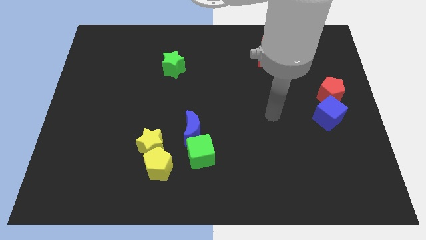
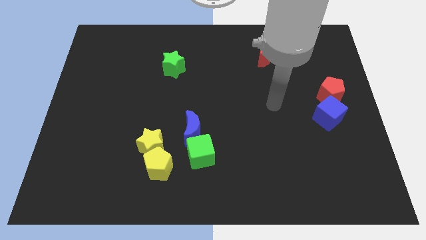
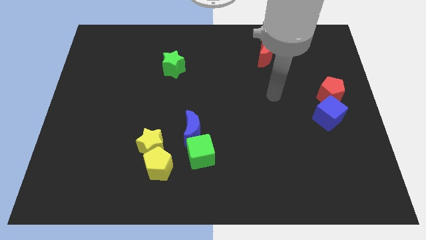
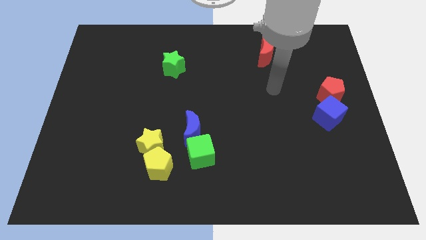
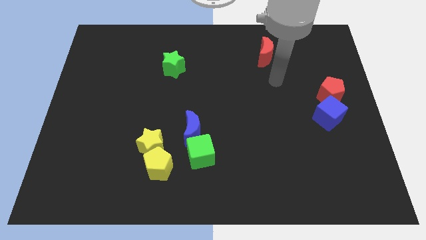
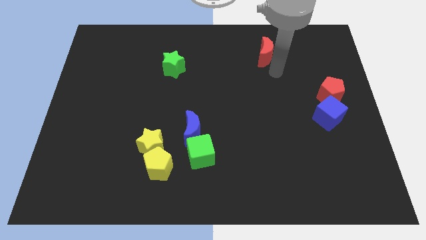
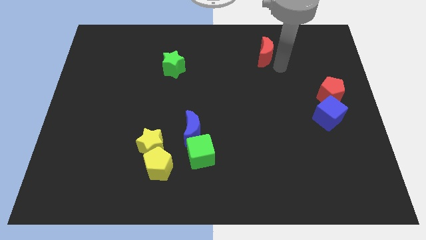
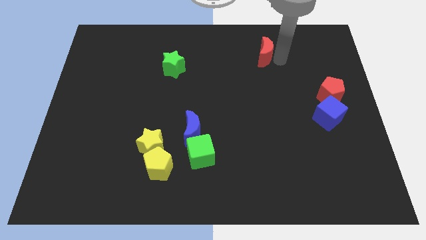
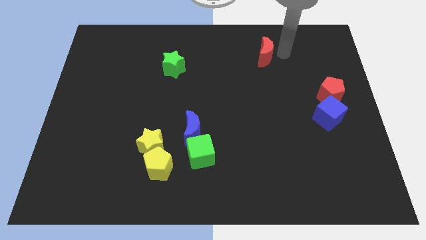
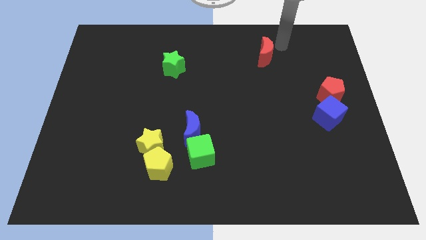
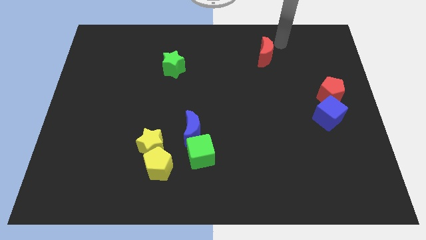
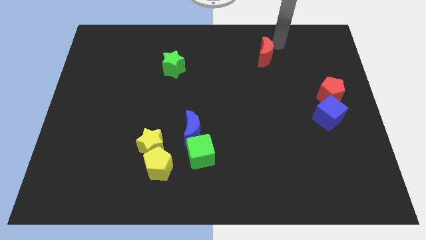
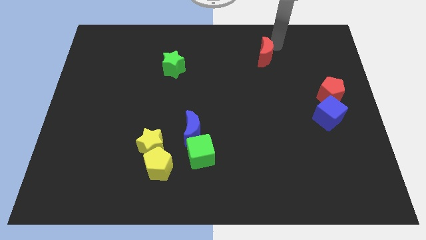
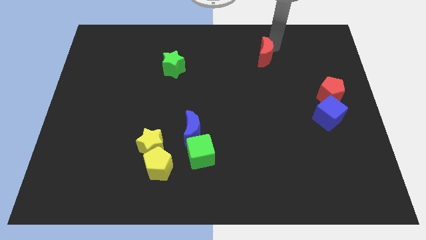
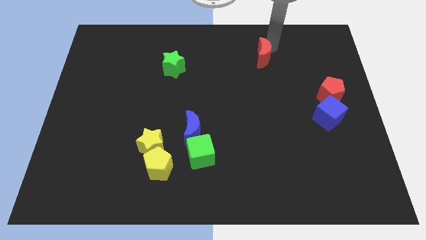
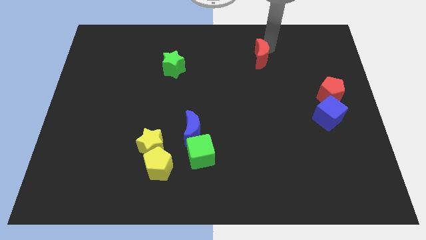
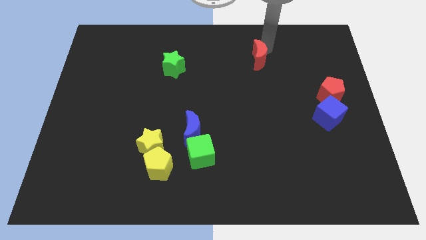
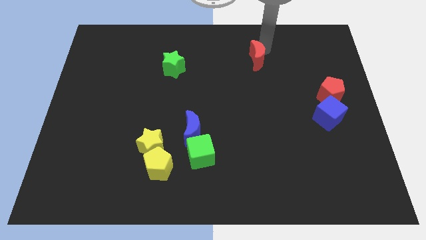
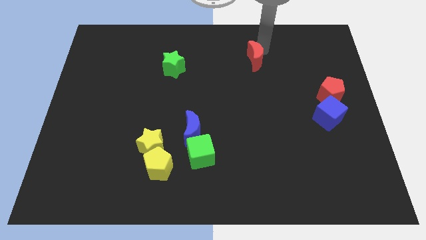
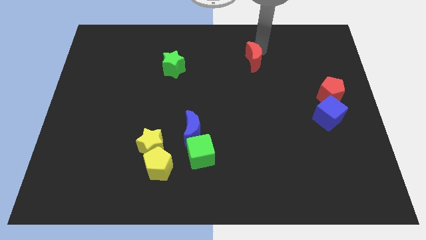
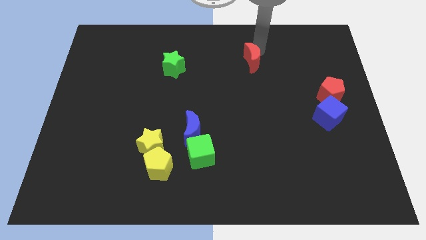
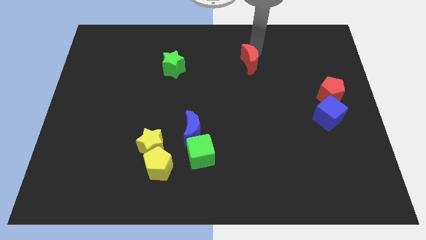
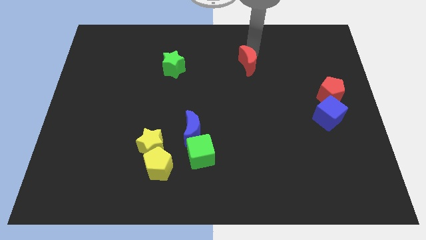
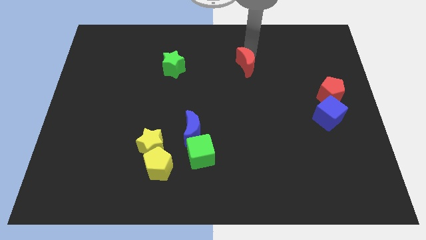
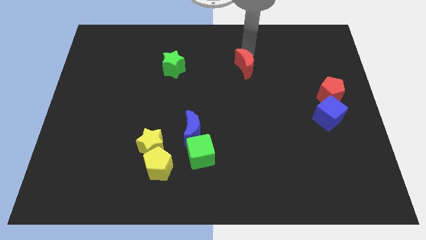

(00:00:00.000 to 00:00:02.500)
slightly move the red moon down and to the left

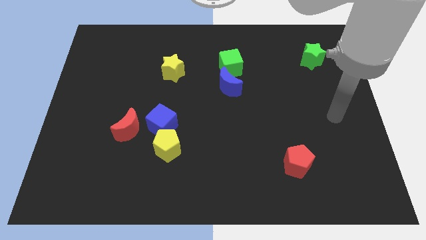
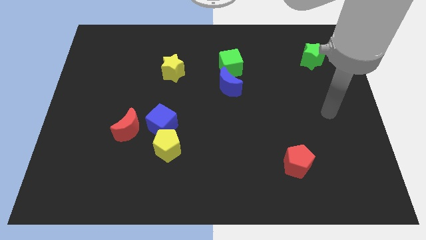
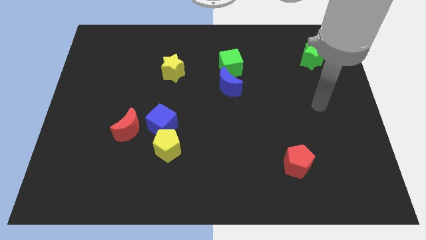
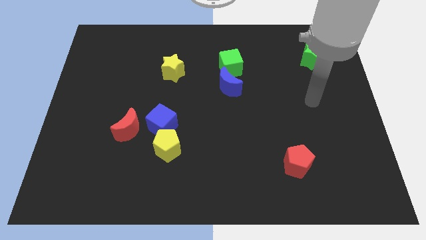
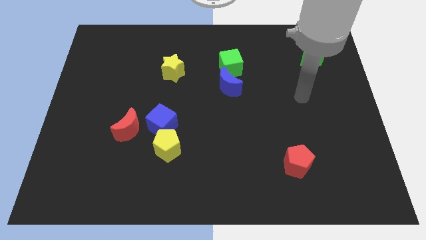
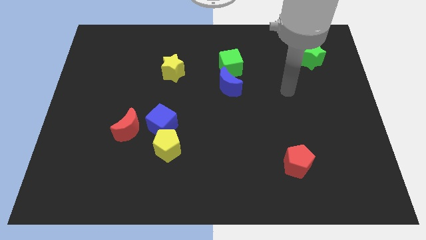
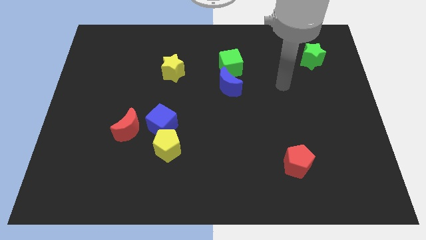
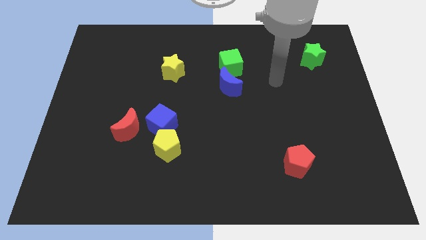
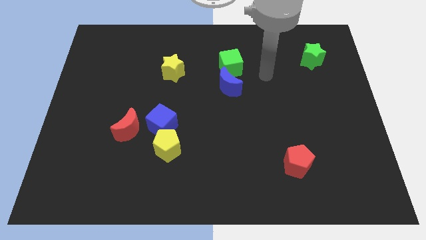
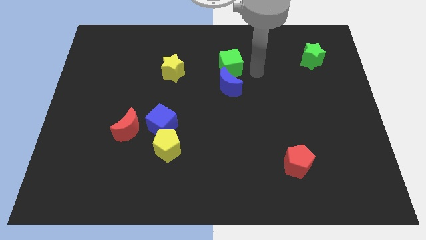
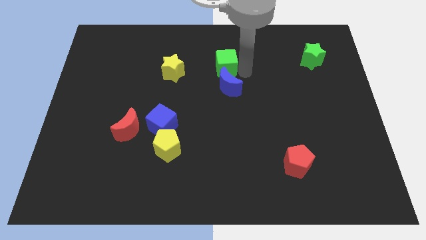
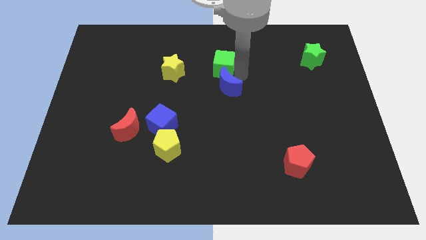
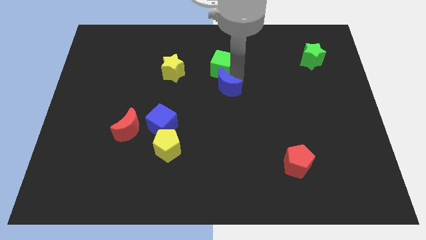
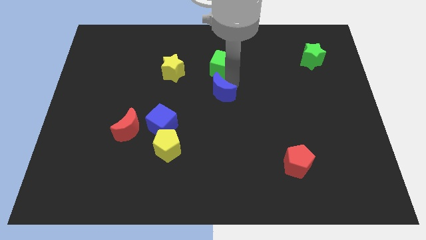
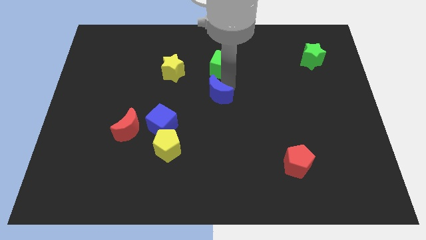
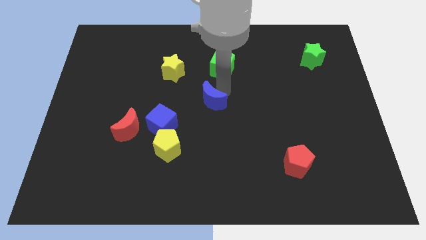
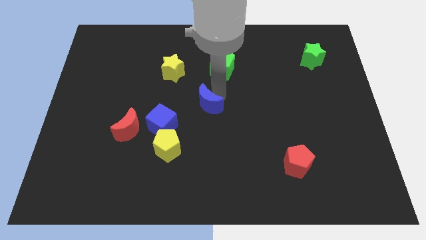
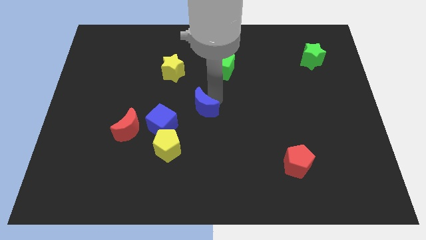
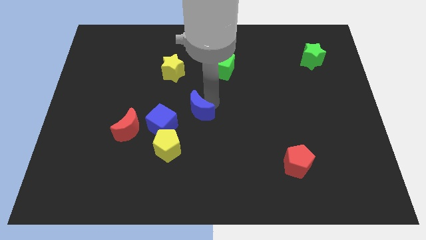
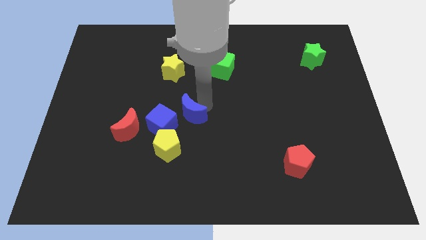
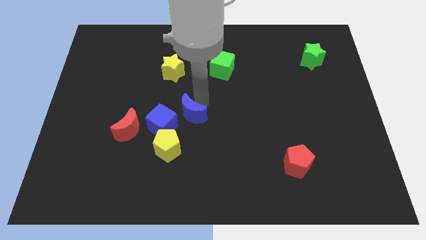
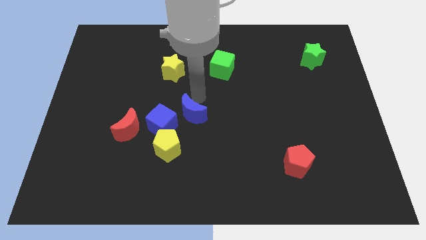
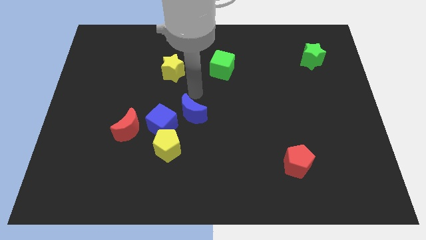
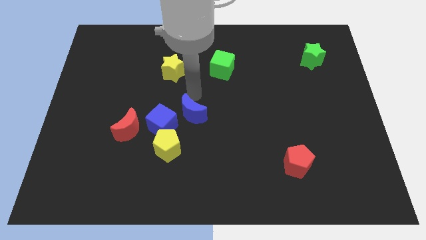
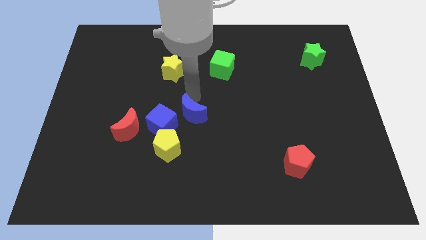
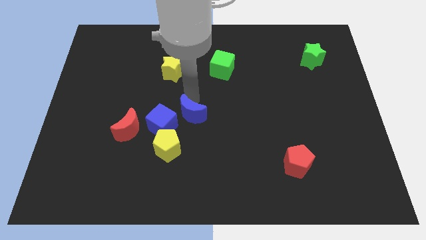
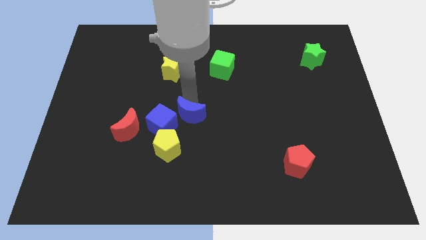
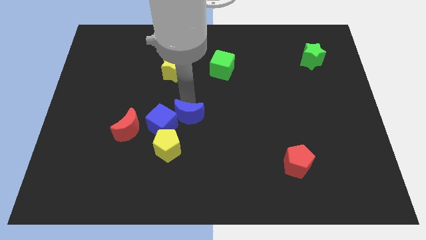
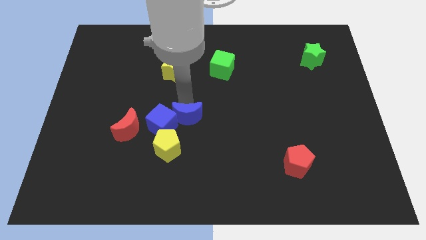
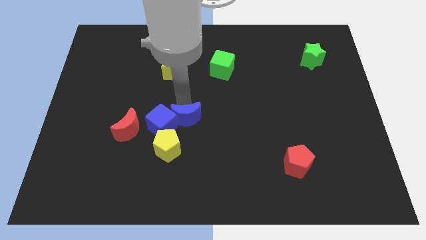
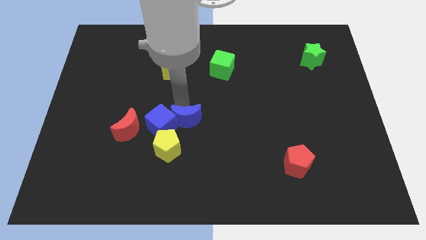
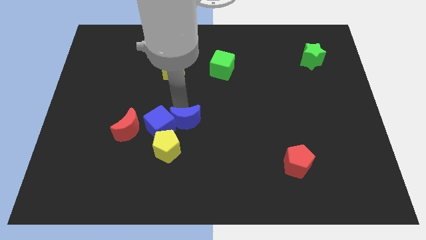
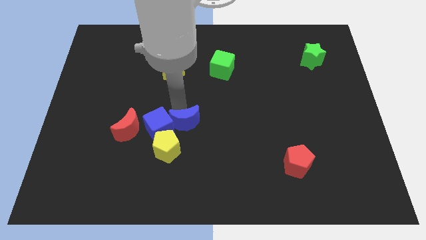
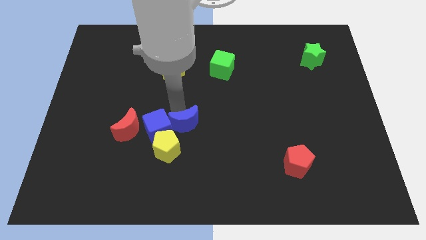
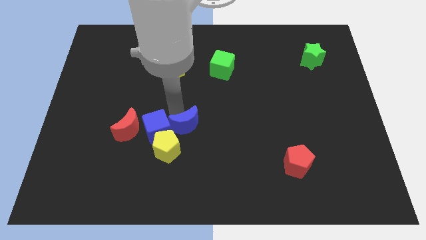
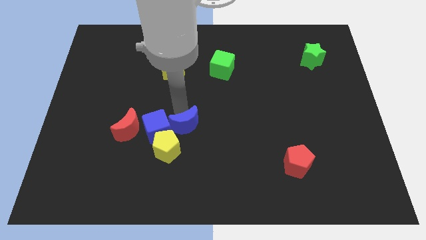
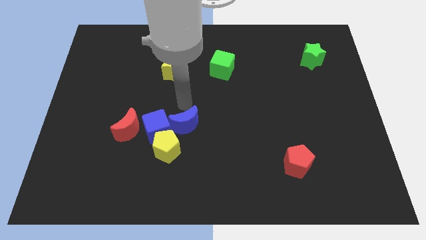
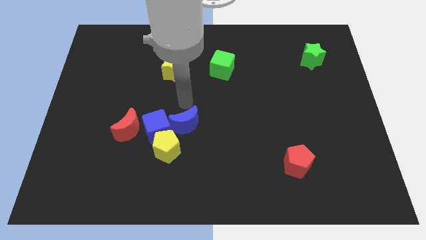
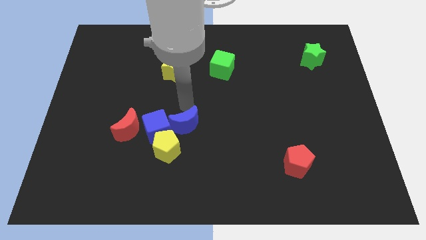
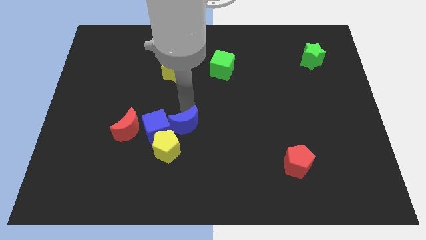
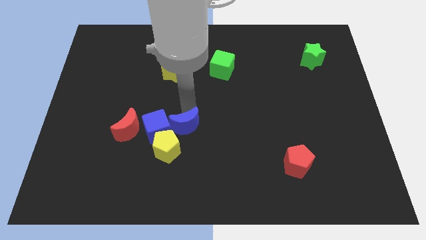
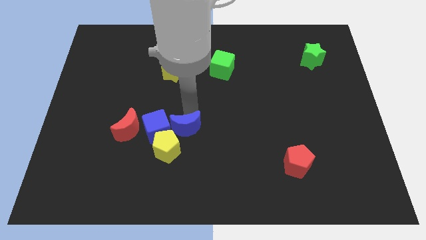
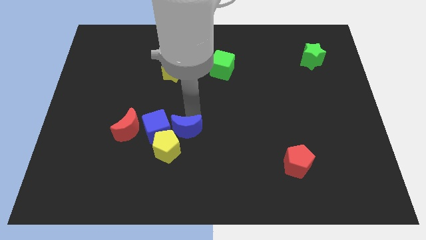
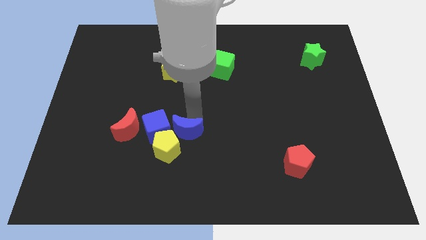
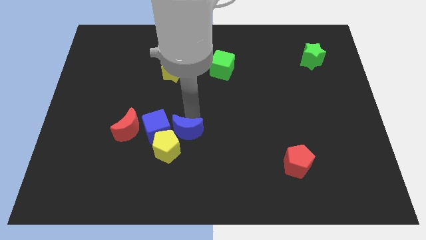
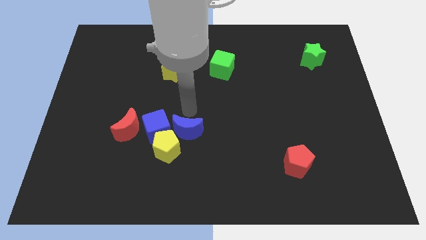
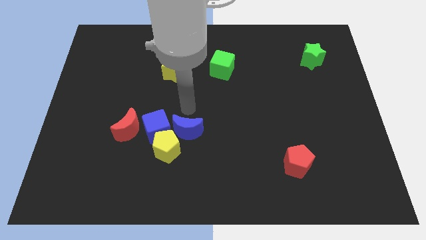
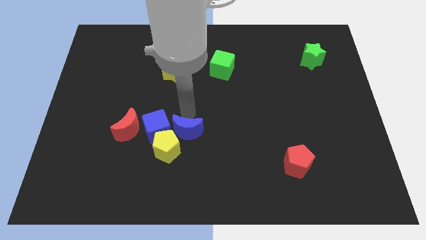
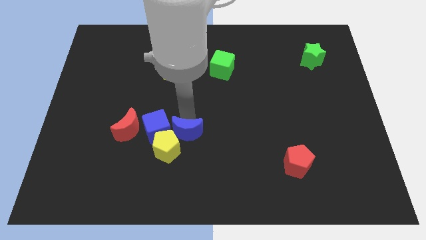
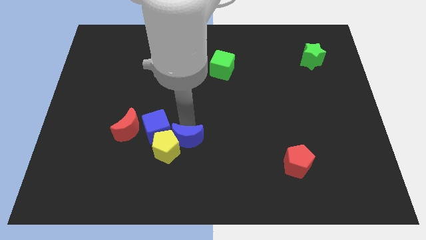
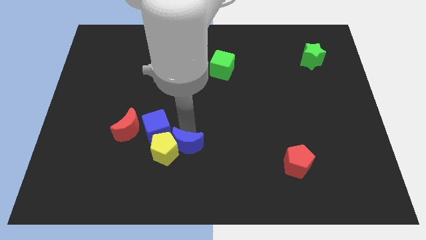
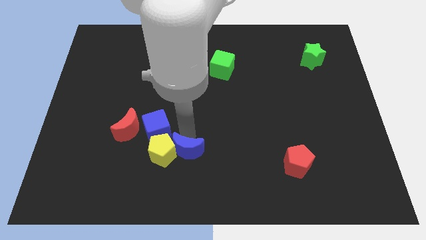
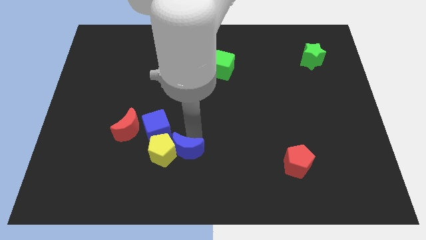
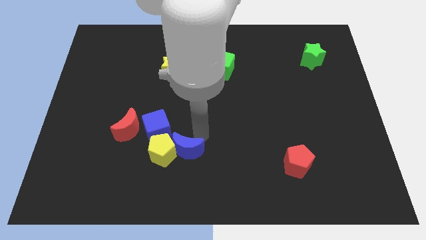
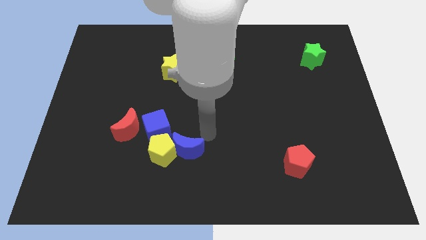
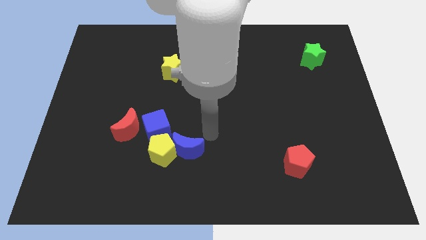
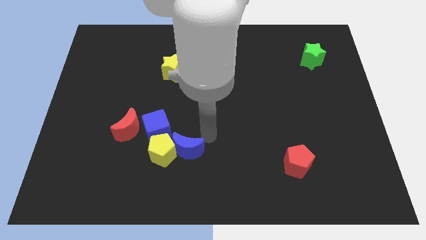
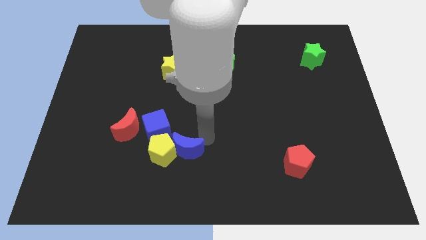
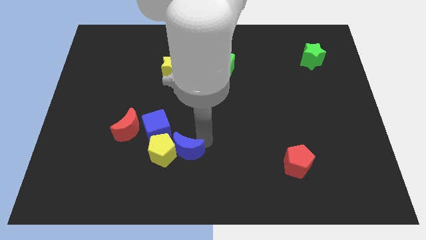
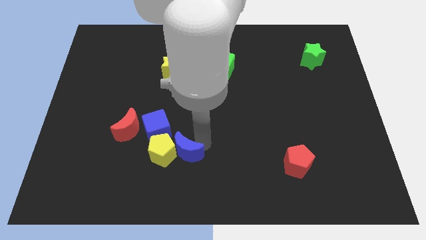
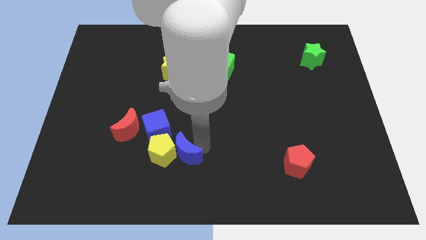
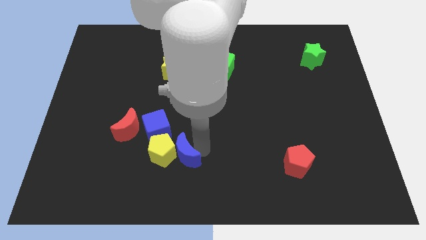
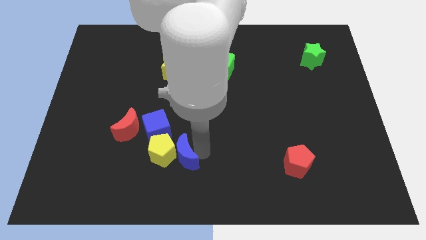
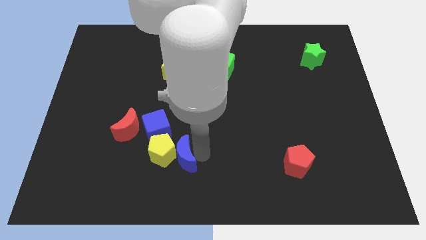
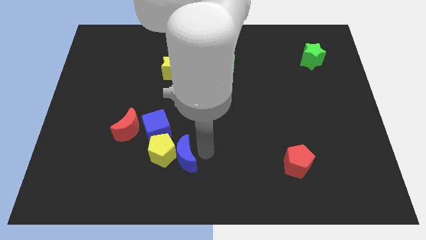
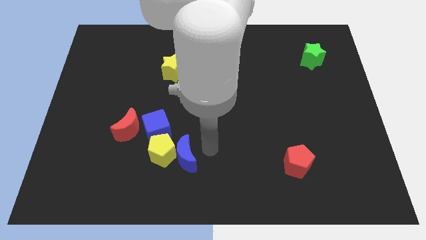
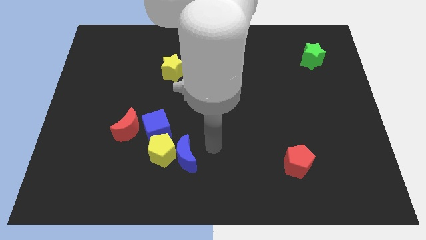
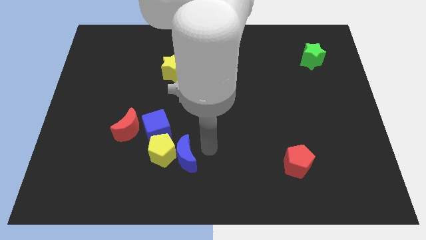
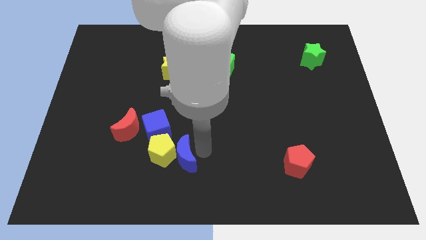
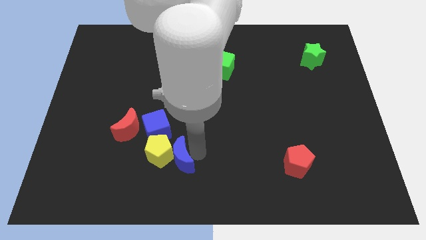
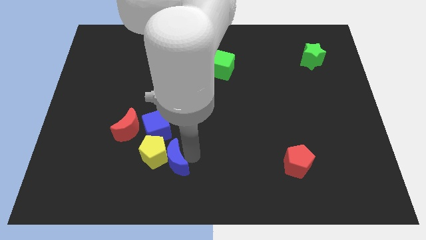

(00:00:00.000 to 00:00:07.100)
move the blue moon diagonally downwards and to the left
